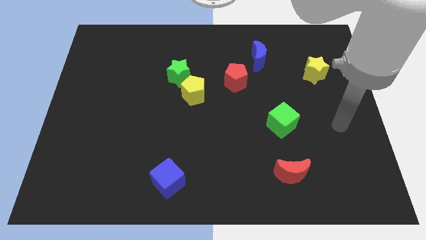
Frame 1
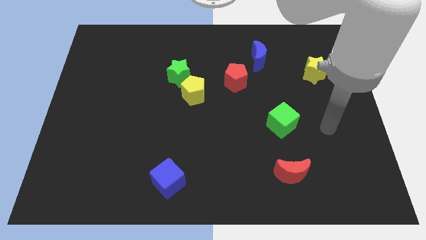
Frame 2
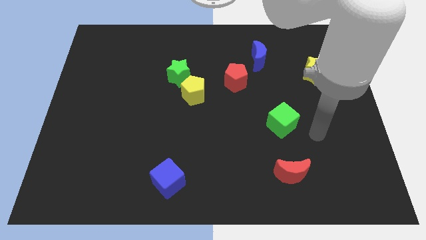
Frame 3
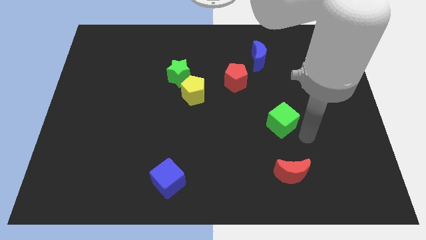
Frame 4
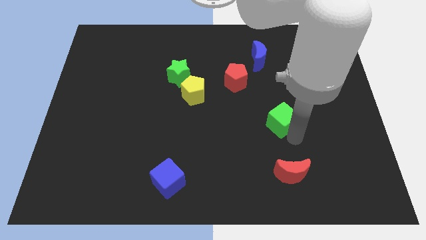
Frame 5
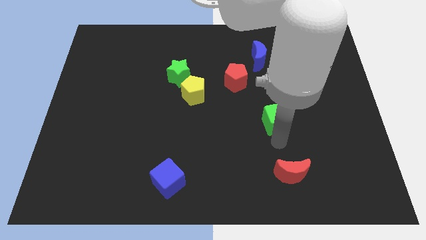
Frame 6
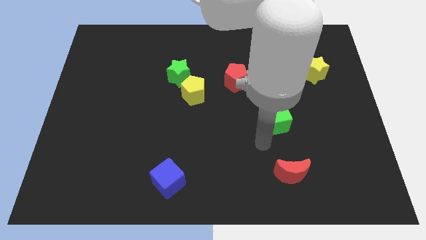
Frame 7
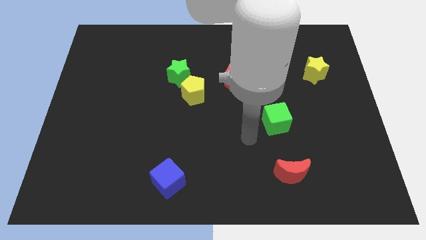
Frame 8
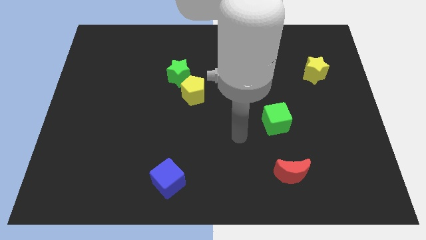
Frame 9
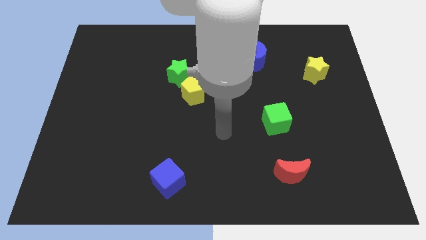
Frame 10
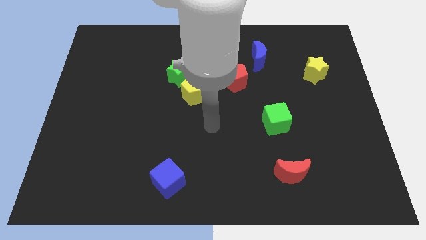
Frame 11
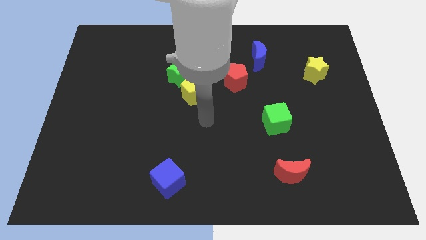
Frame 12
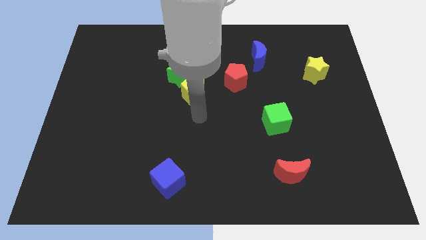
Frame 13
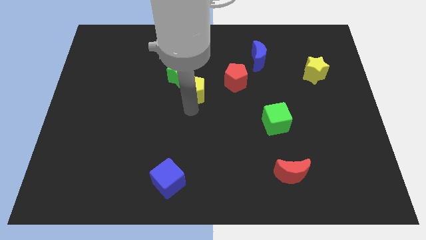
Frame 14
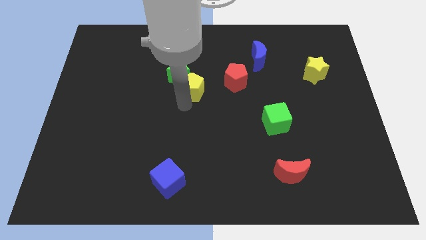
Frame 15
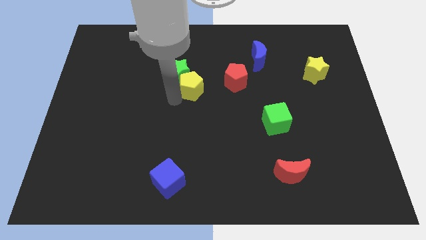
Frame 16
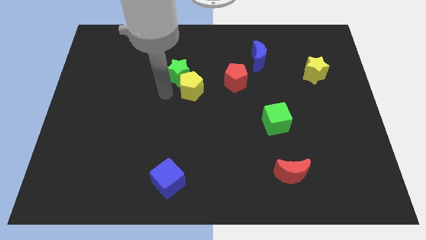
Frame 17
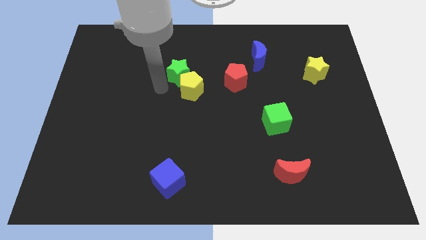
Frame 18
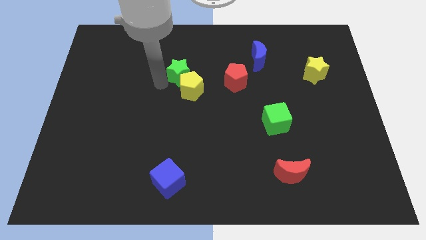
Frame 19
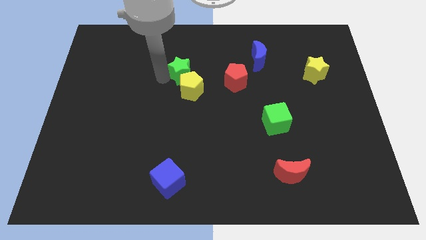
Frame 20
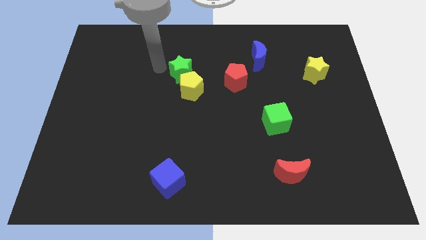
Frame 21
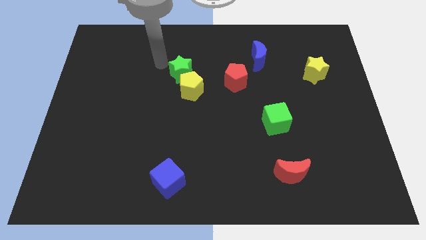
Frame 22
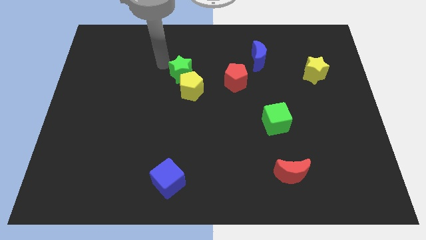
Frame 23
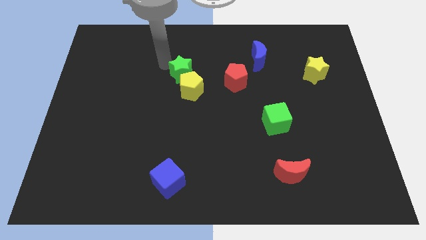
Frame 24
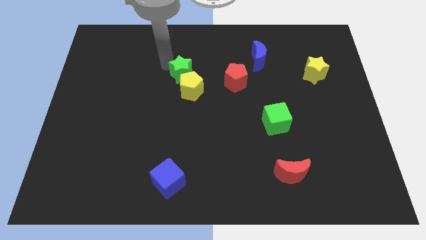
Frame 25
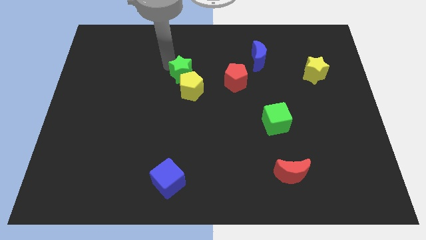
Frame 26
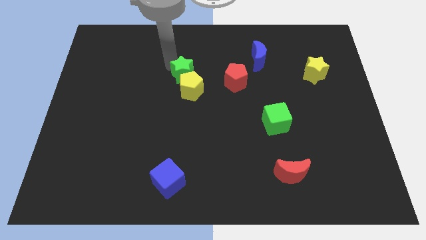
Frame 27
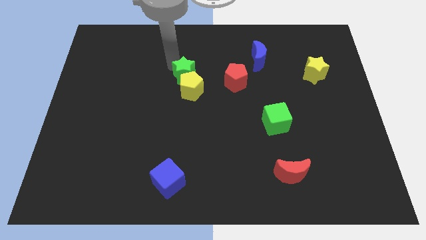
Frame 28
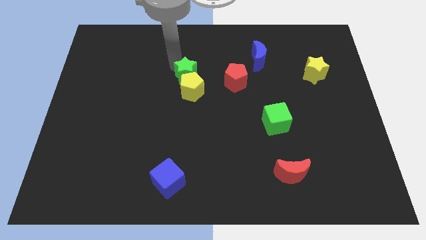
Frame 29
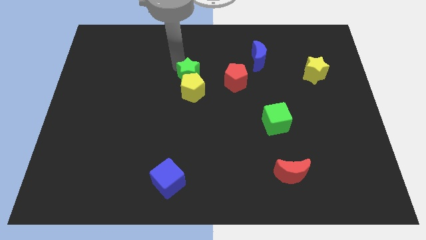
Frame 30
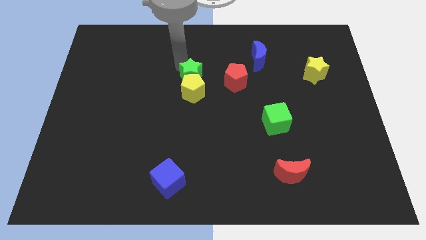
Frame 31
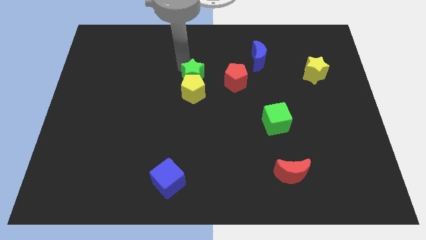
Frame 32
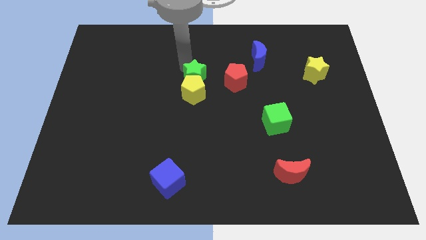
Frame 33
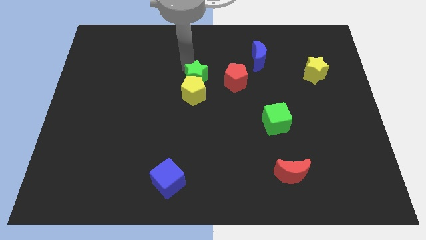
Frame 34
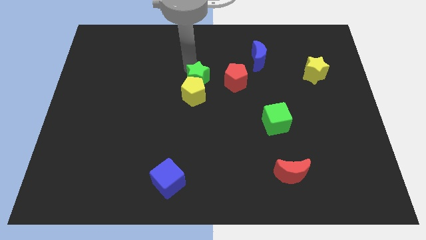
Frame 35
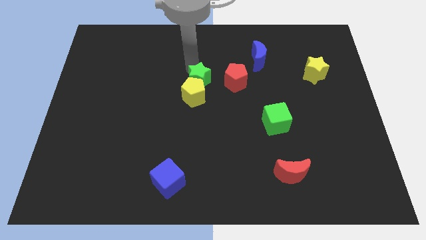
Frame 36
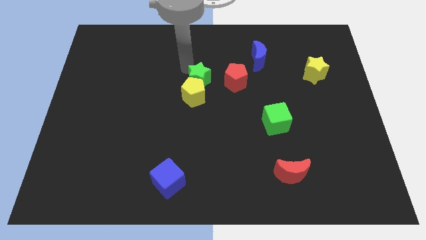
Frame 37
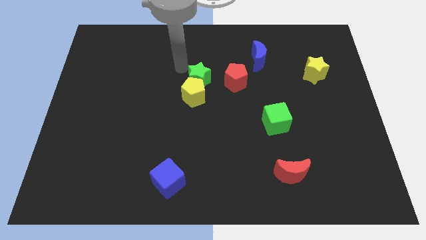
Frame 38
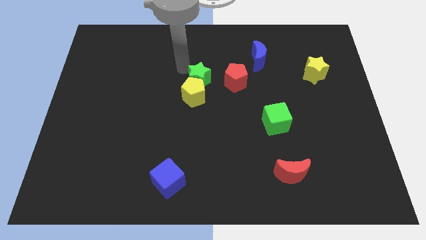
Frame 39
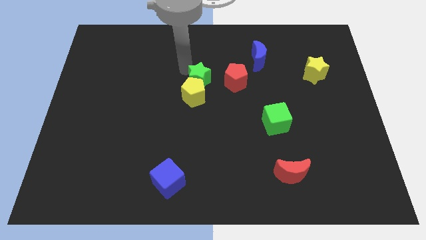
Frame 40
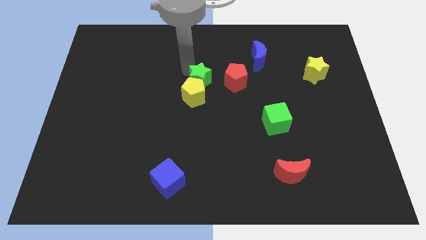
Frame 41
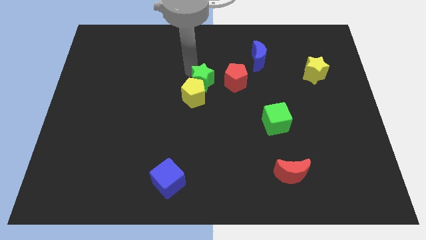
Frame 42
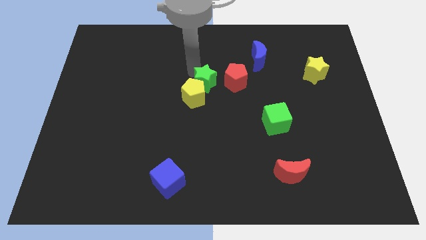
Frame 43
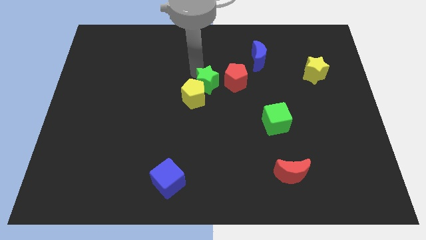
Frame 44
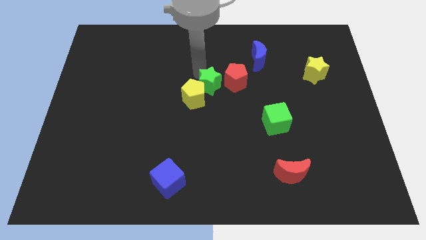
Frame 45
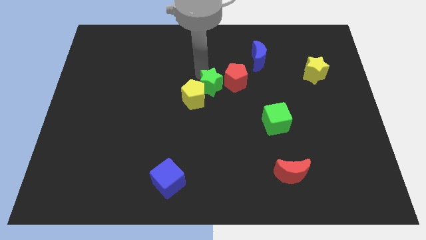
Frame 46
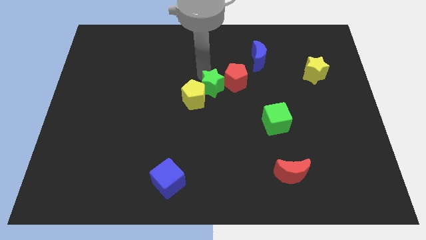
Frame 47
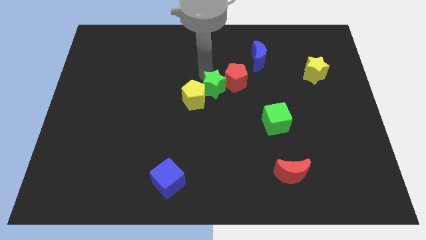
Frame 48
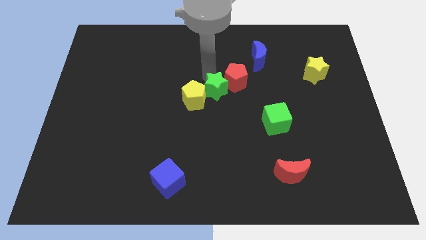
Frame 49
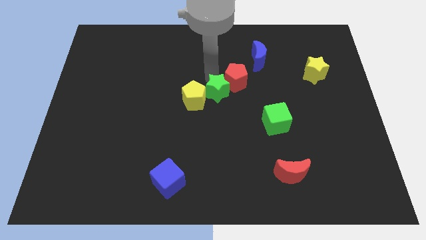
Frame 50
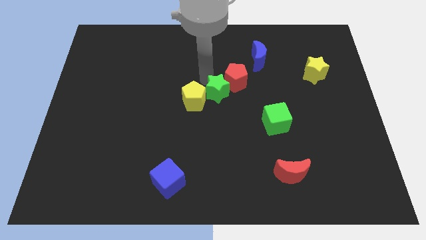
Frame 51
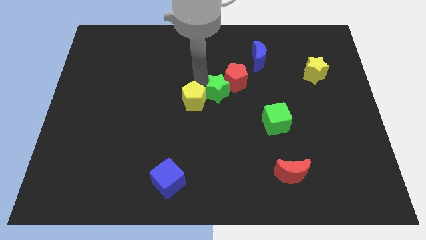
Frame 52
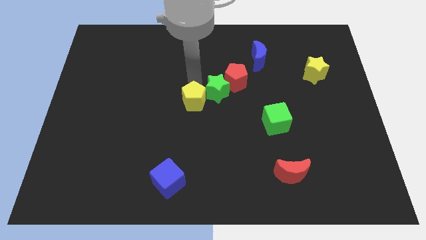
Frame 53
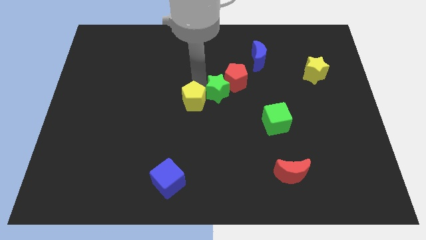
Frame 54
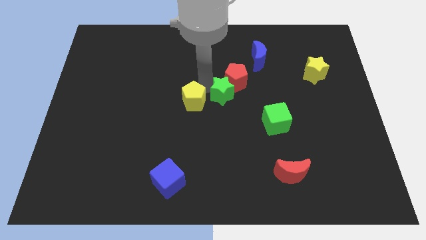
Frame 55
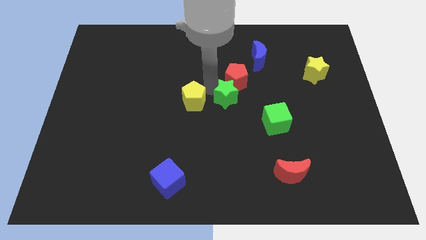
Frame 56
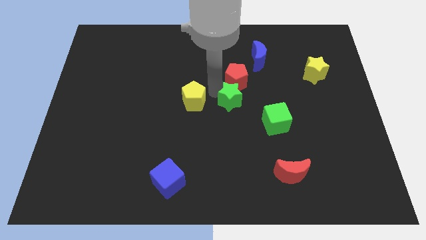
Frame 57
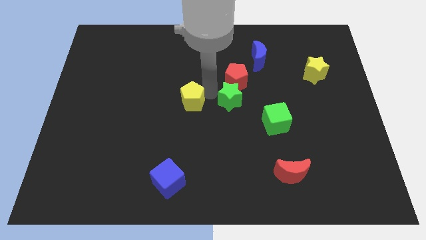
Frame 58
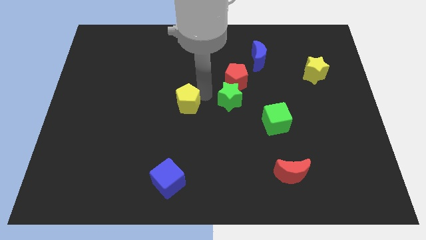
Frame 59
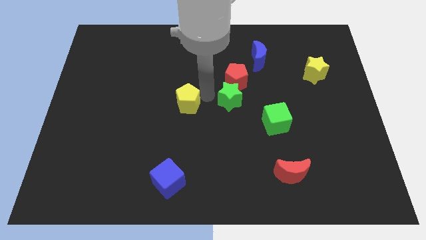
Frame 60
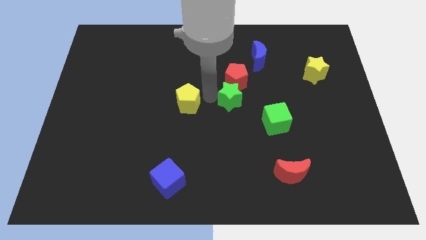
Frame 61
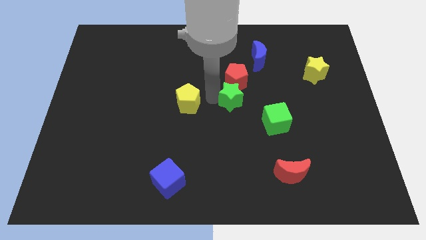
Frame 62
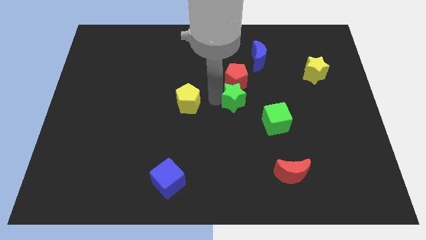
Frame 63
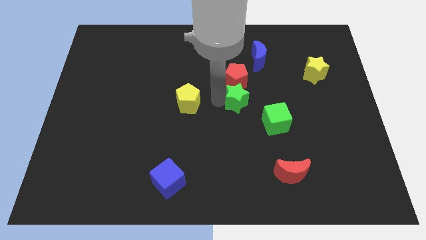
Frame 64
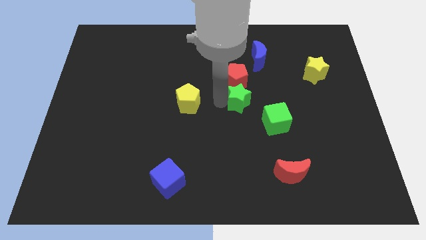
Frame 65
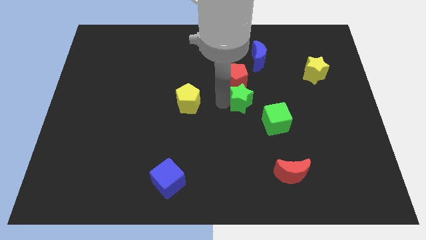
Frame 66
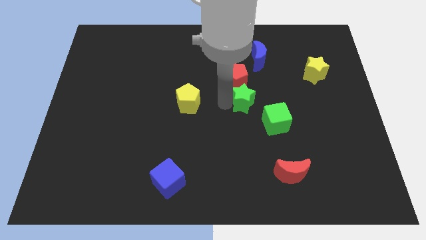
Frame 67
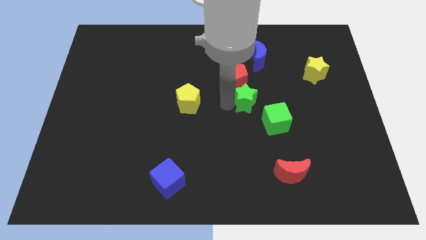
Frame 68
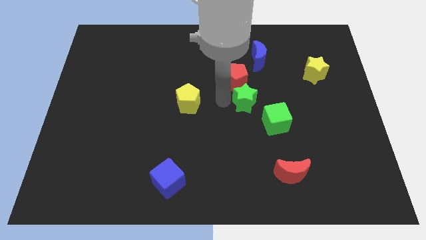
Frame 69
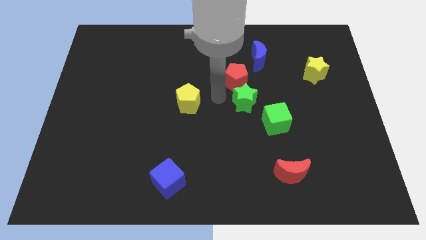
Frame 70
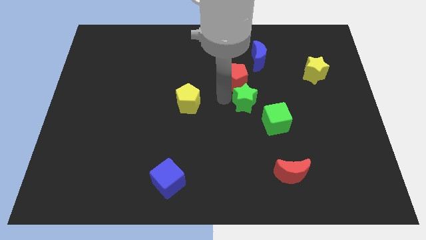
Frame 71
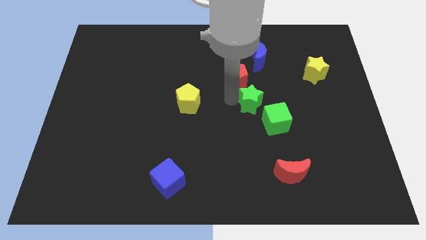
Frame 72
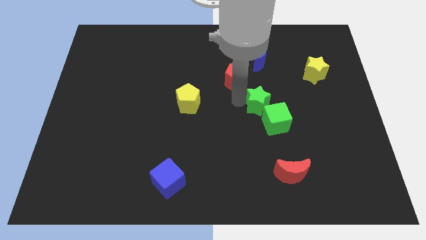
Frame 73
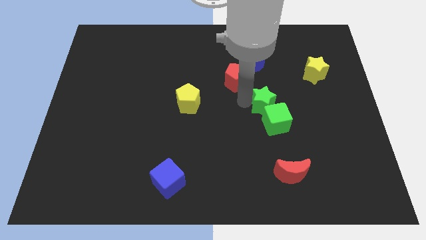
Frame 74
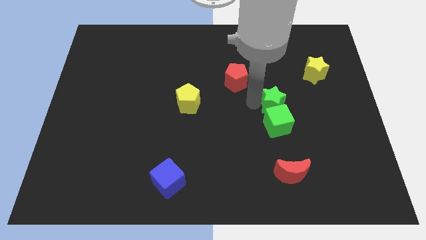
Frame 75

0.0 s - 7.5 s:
move the green star to the top right side of the green cube
